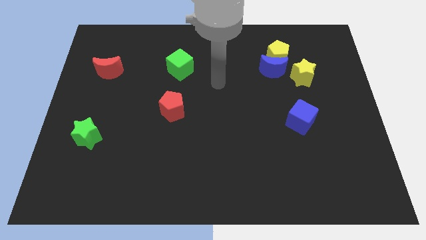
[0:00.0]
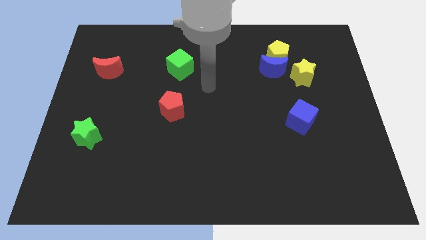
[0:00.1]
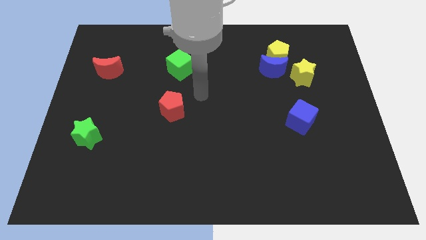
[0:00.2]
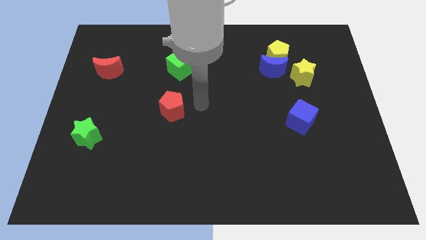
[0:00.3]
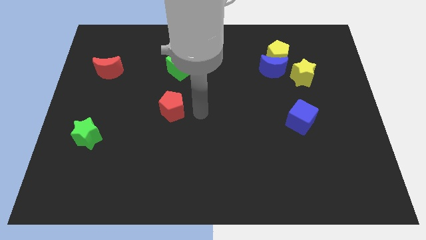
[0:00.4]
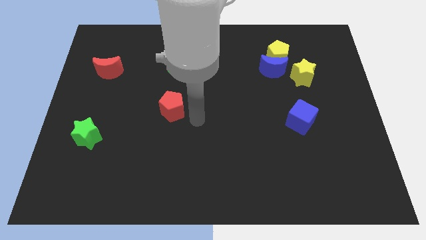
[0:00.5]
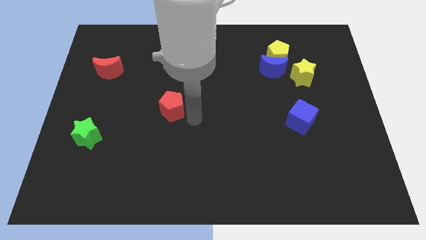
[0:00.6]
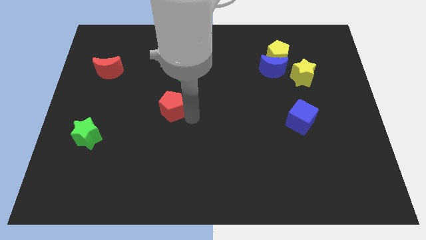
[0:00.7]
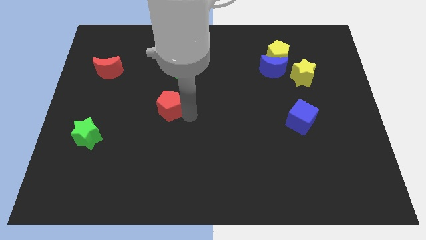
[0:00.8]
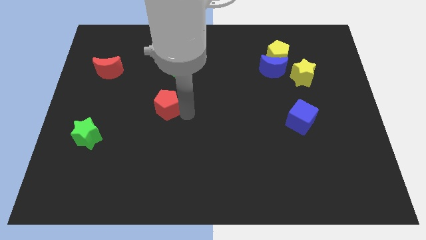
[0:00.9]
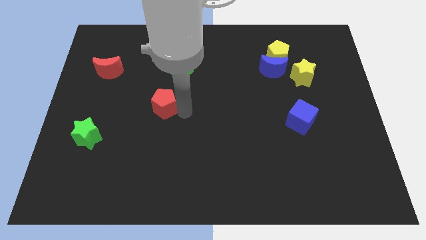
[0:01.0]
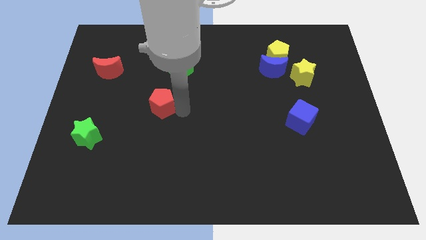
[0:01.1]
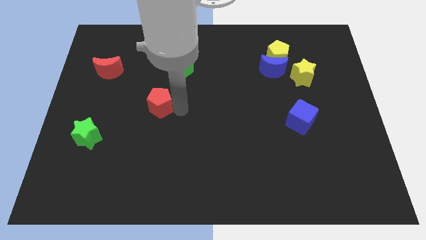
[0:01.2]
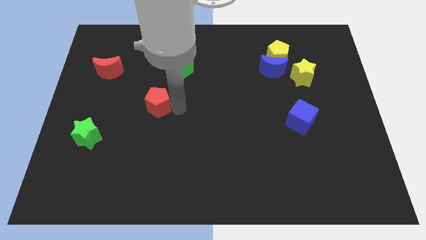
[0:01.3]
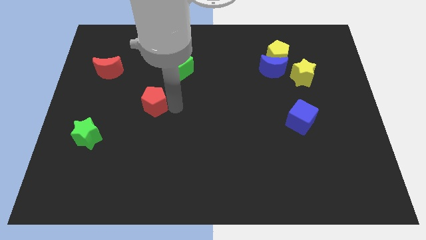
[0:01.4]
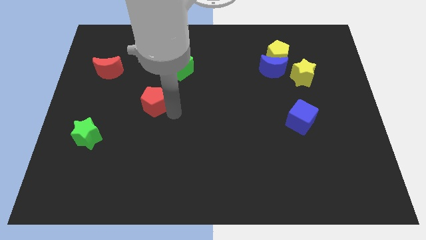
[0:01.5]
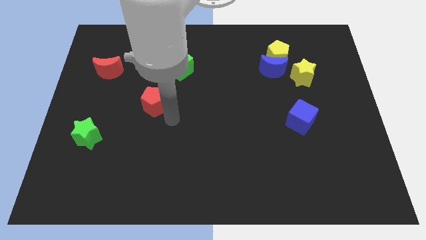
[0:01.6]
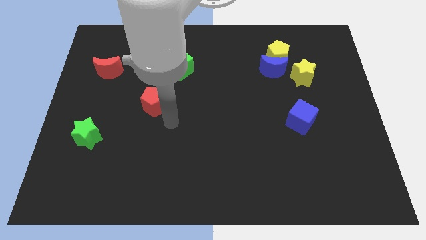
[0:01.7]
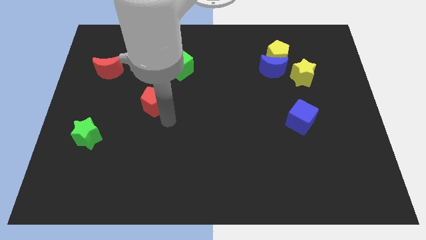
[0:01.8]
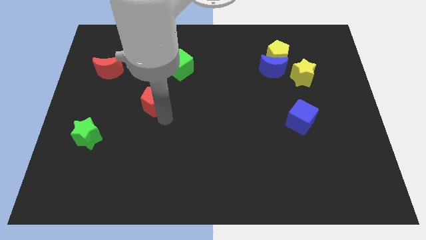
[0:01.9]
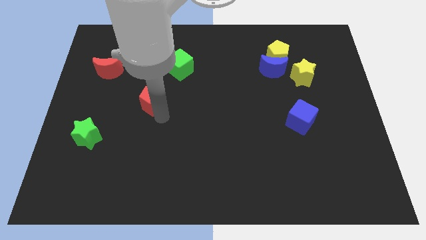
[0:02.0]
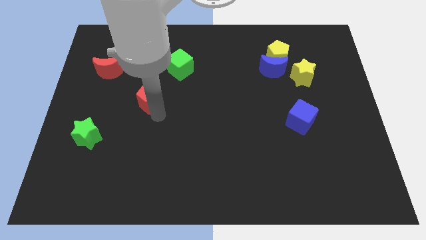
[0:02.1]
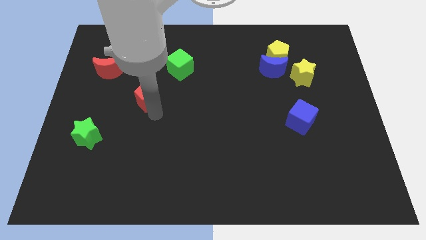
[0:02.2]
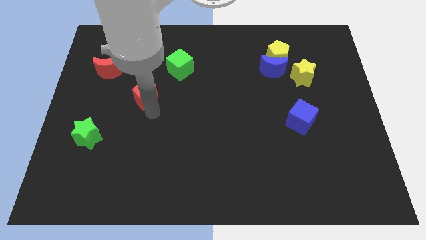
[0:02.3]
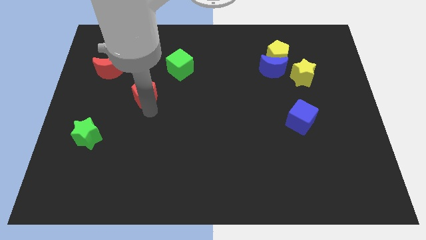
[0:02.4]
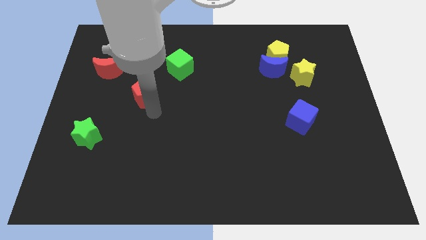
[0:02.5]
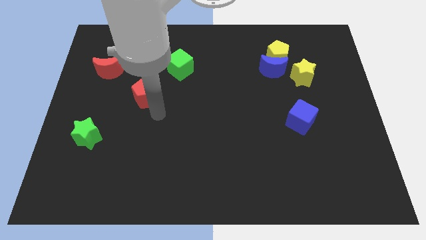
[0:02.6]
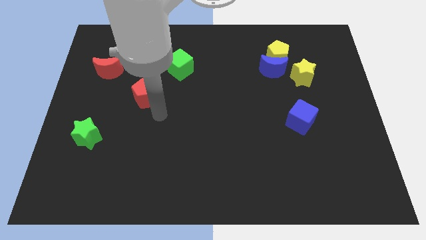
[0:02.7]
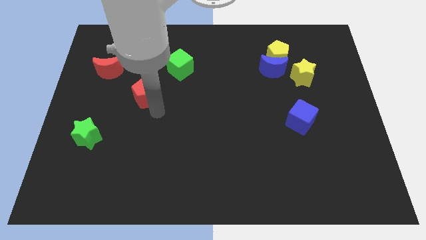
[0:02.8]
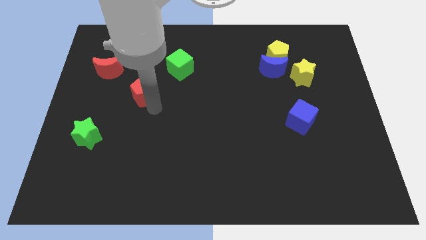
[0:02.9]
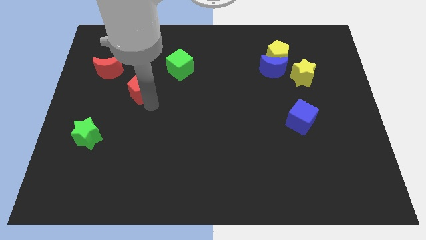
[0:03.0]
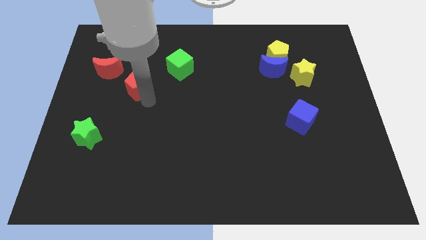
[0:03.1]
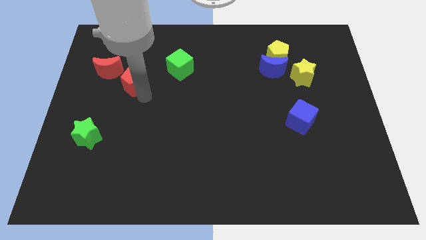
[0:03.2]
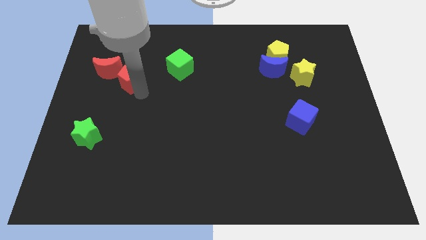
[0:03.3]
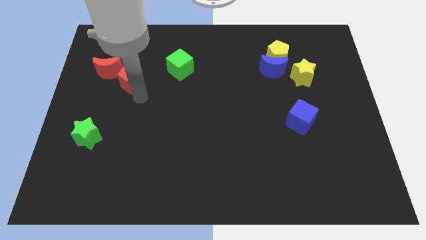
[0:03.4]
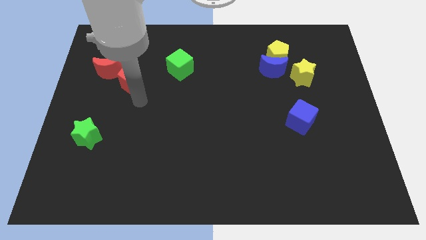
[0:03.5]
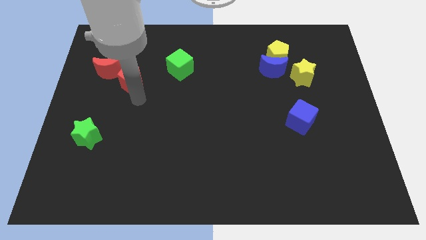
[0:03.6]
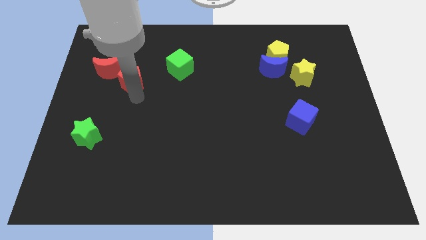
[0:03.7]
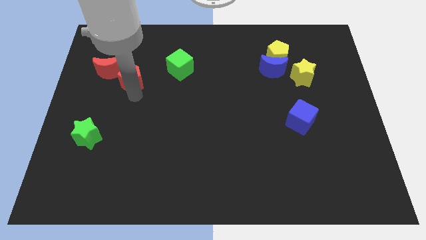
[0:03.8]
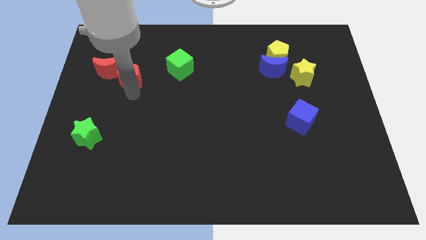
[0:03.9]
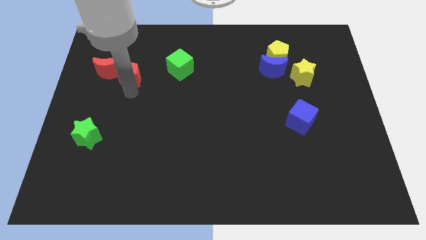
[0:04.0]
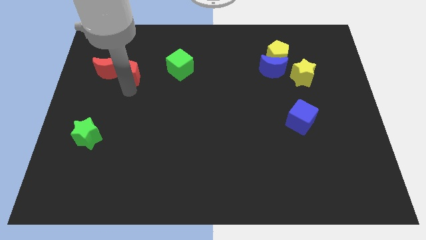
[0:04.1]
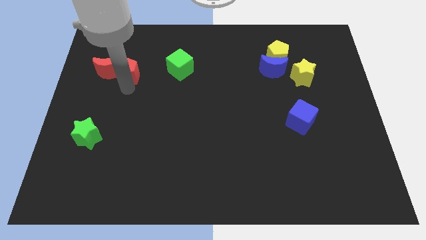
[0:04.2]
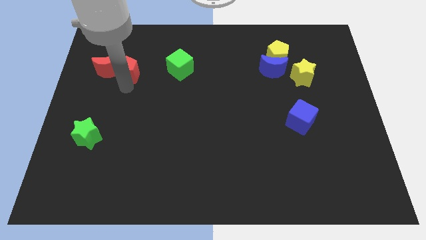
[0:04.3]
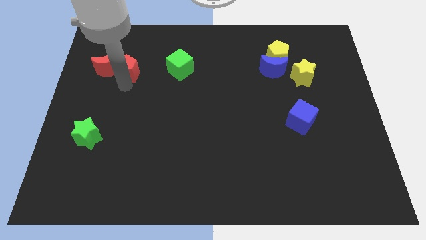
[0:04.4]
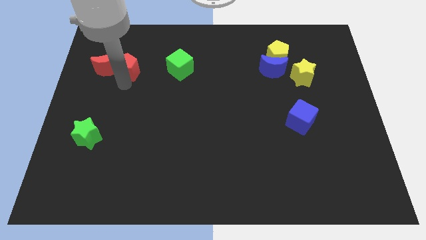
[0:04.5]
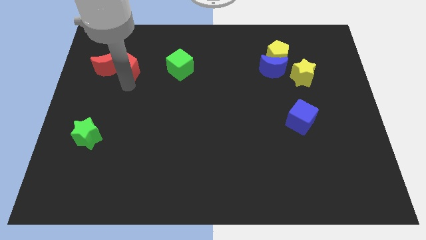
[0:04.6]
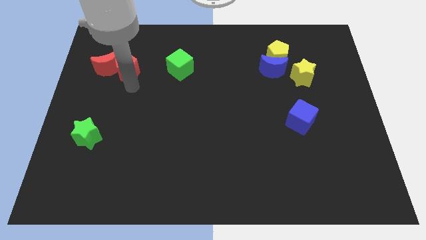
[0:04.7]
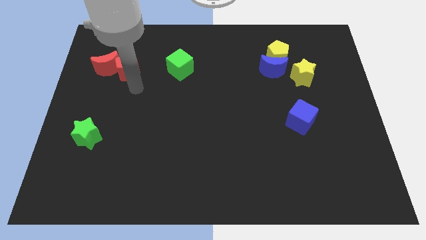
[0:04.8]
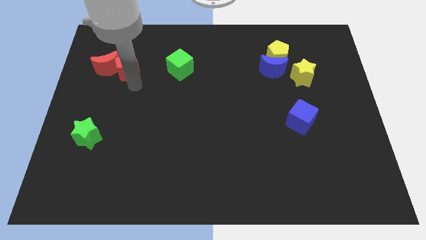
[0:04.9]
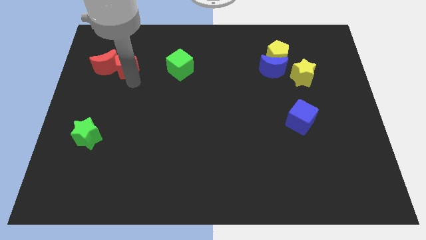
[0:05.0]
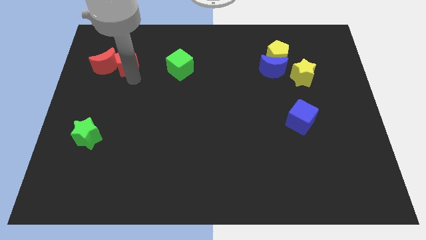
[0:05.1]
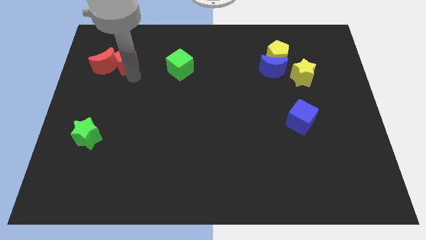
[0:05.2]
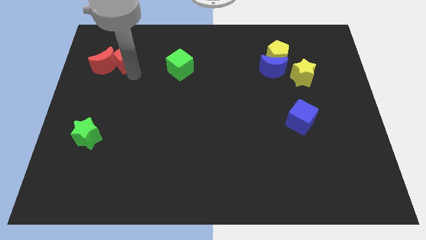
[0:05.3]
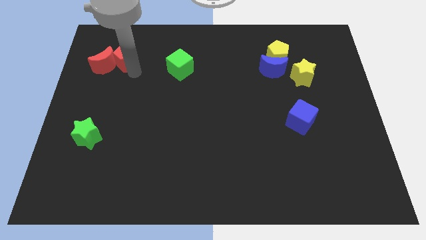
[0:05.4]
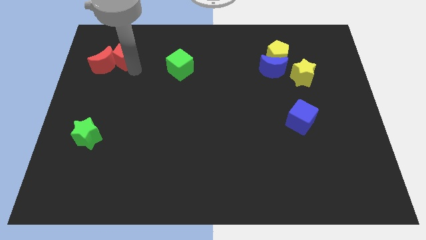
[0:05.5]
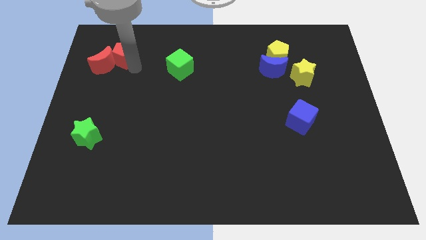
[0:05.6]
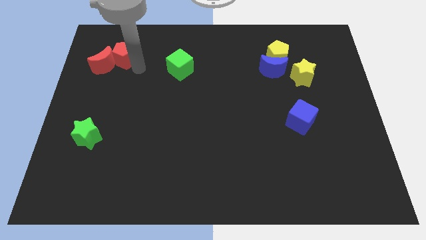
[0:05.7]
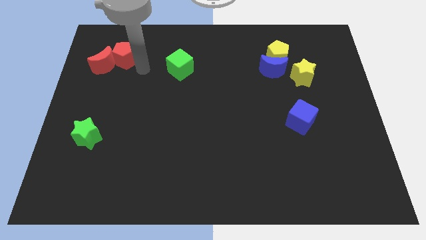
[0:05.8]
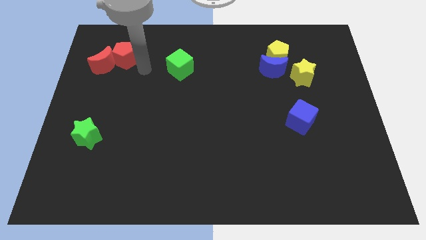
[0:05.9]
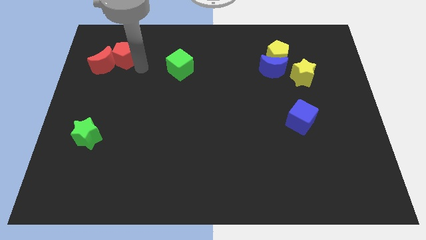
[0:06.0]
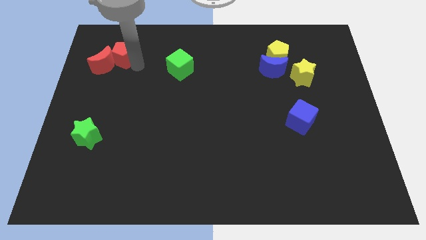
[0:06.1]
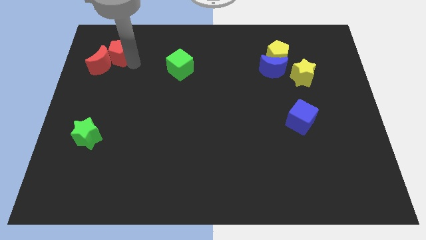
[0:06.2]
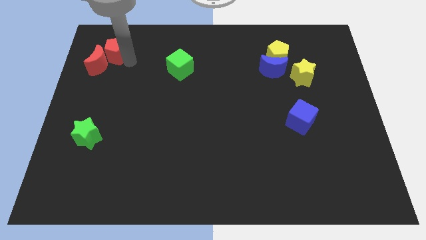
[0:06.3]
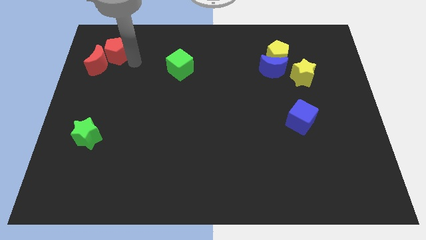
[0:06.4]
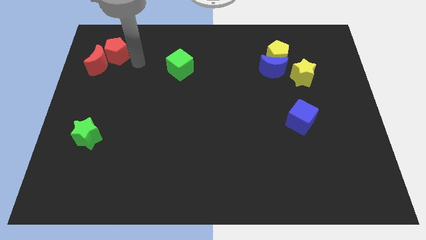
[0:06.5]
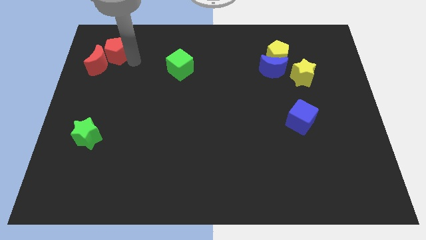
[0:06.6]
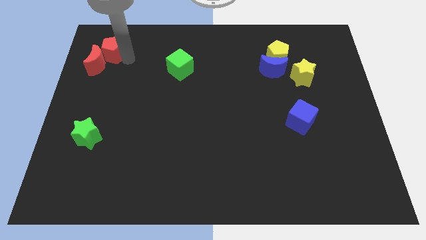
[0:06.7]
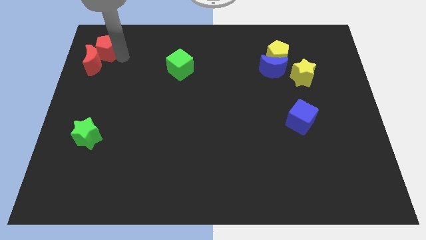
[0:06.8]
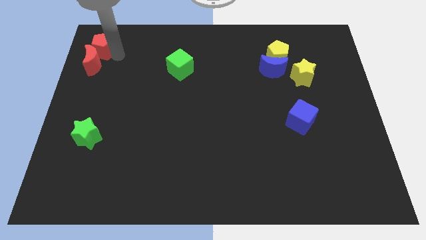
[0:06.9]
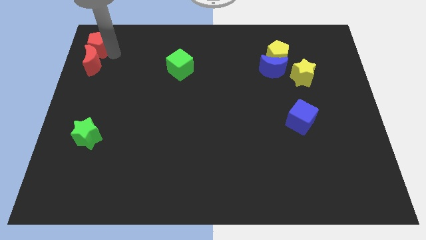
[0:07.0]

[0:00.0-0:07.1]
push the red pentagon to the upper left corner
